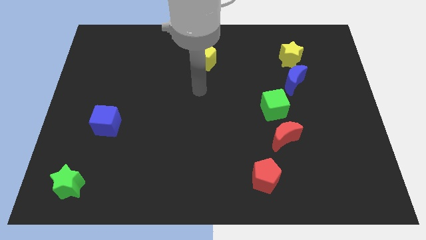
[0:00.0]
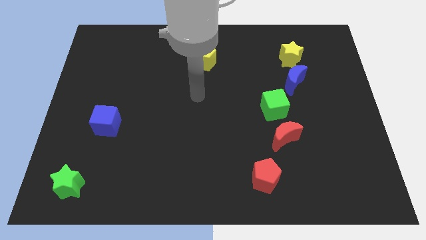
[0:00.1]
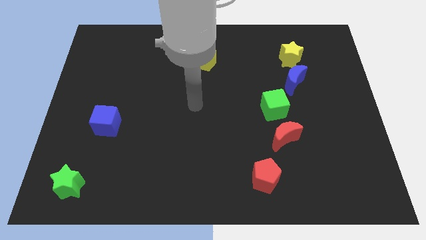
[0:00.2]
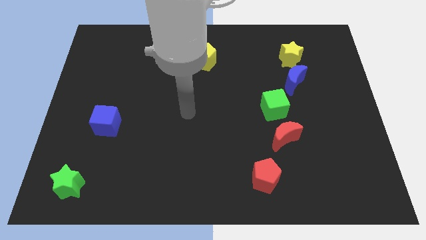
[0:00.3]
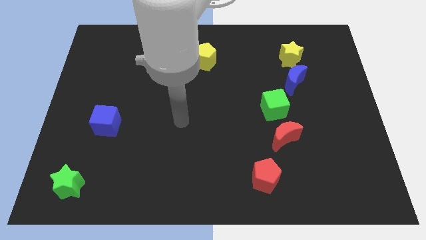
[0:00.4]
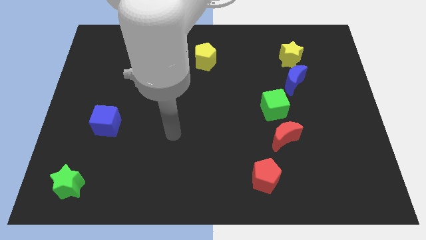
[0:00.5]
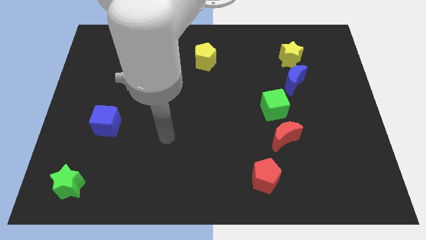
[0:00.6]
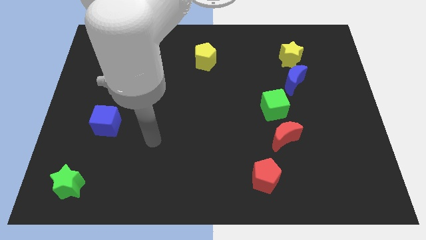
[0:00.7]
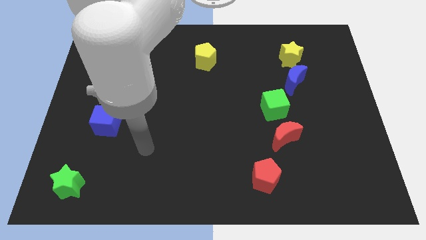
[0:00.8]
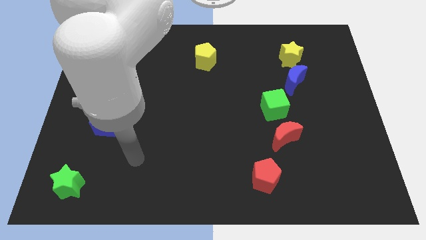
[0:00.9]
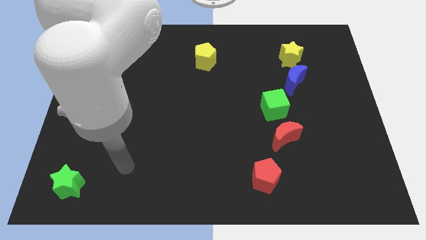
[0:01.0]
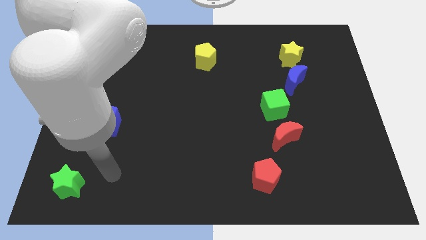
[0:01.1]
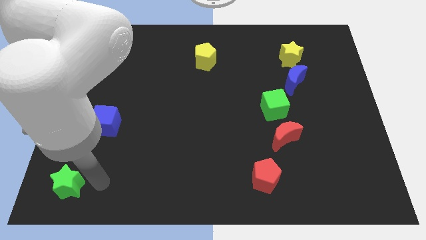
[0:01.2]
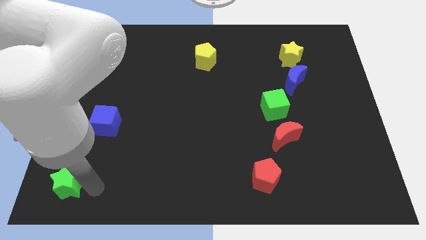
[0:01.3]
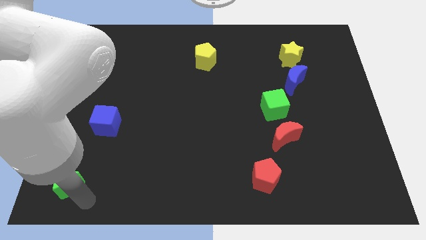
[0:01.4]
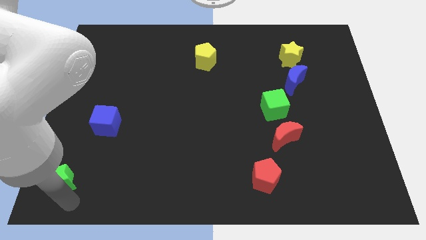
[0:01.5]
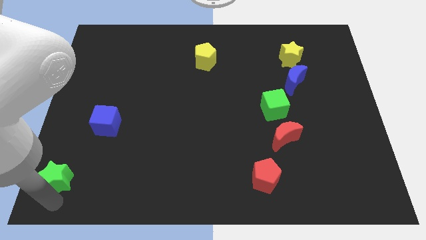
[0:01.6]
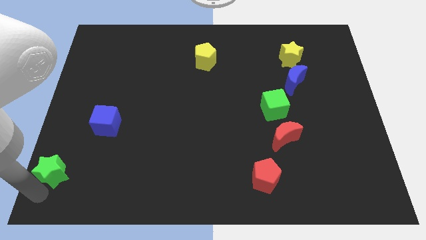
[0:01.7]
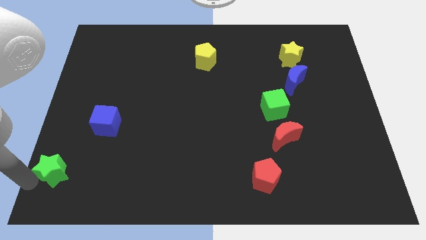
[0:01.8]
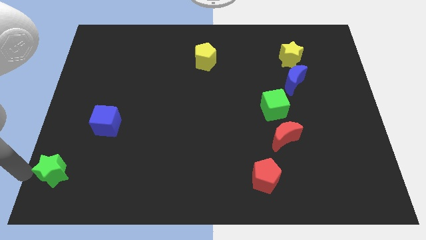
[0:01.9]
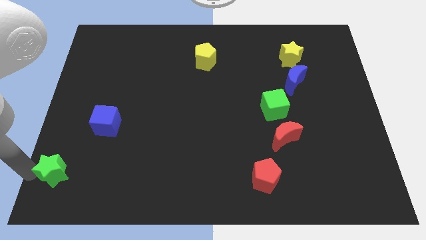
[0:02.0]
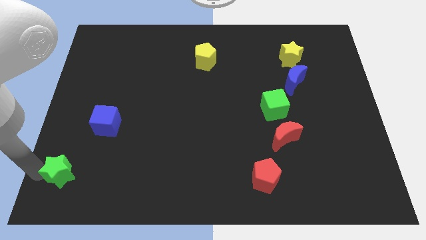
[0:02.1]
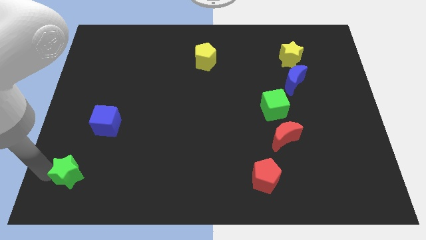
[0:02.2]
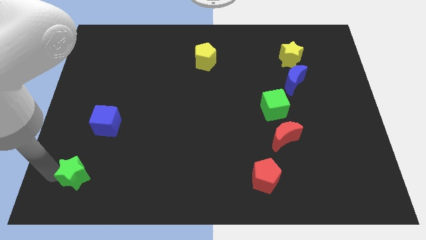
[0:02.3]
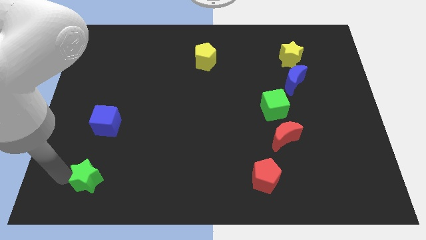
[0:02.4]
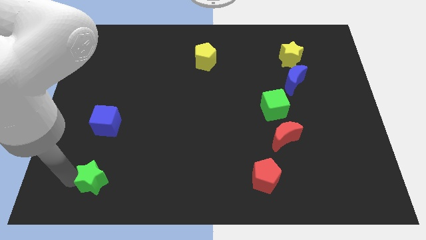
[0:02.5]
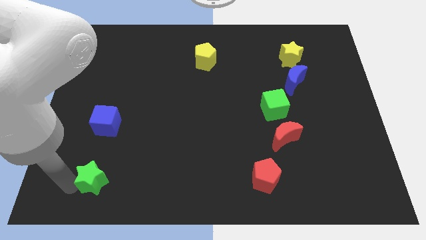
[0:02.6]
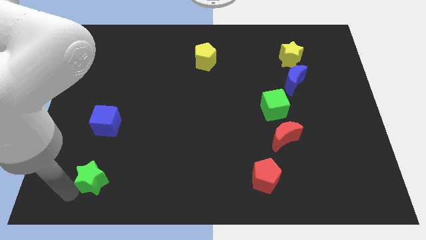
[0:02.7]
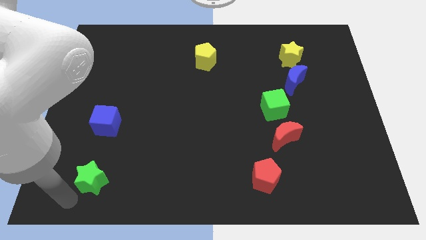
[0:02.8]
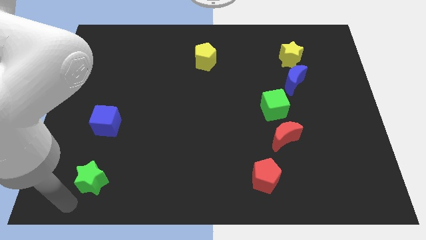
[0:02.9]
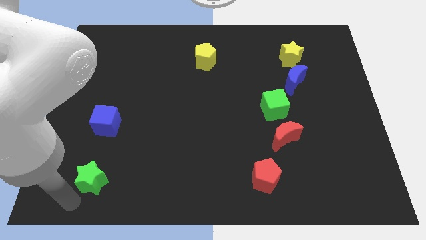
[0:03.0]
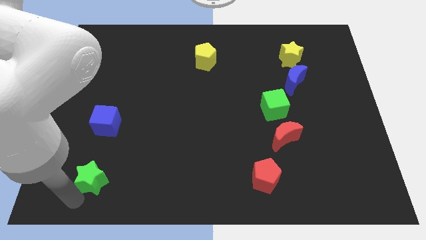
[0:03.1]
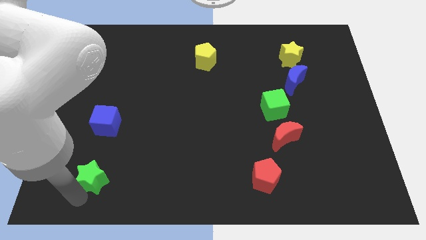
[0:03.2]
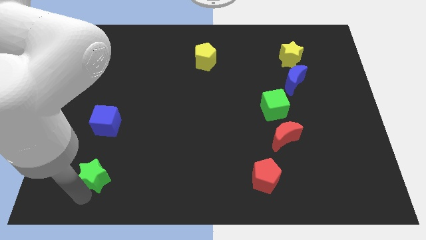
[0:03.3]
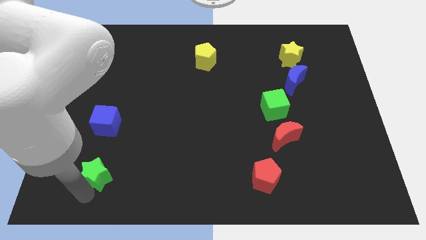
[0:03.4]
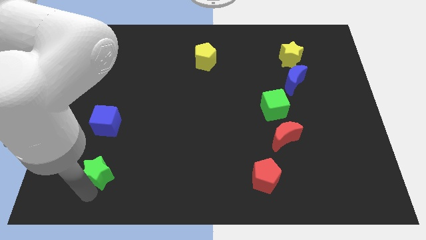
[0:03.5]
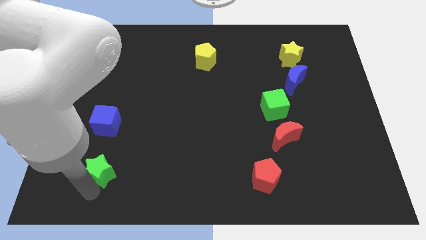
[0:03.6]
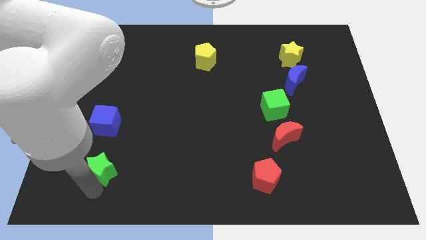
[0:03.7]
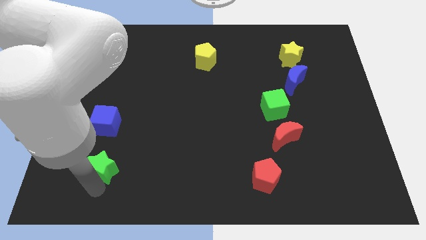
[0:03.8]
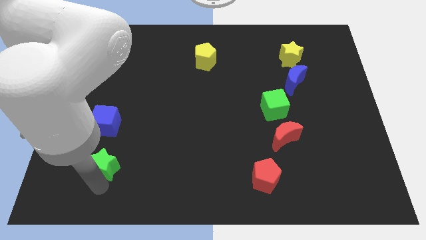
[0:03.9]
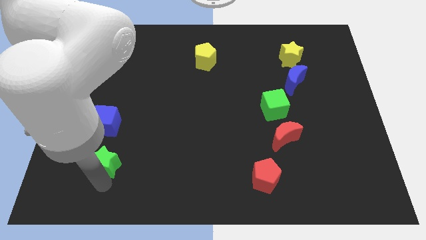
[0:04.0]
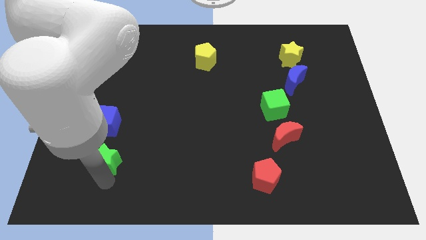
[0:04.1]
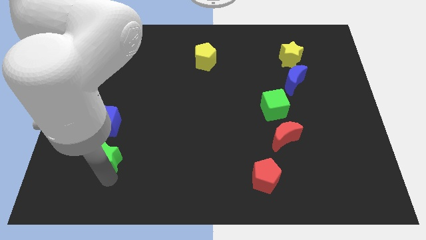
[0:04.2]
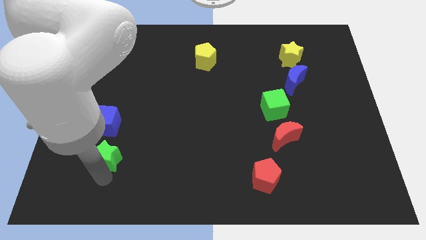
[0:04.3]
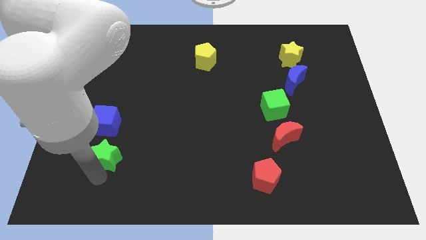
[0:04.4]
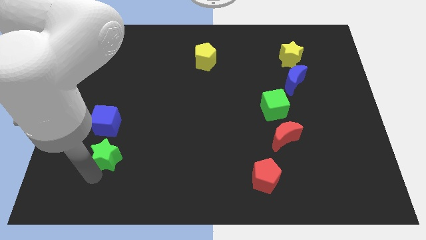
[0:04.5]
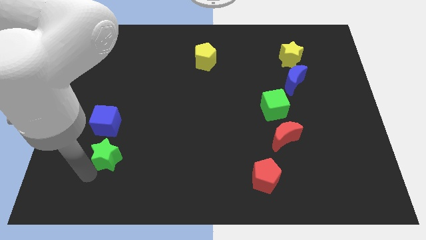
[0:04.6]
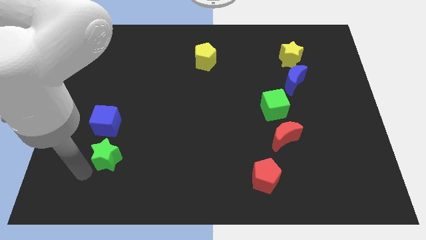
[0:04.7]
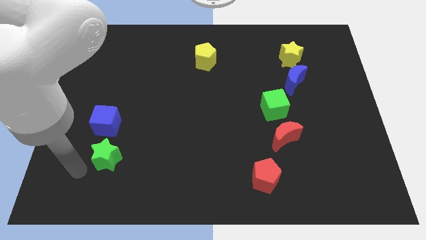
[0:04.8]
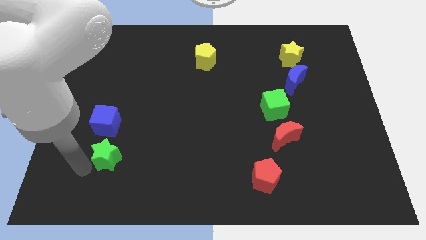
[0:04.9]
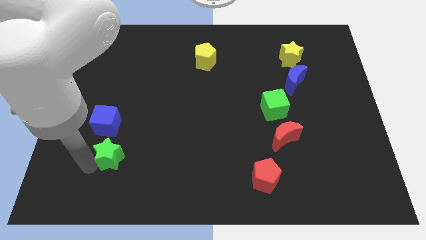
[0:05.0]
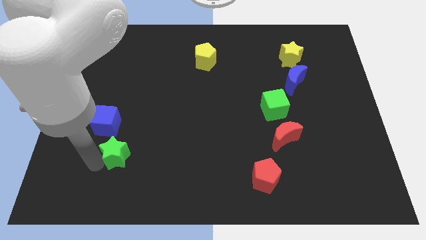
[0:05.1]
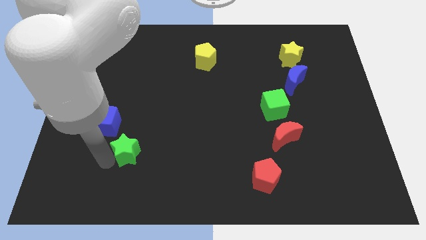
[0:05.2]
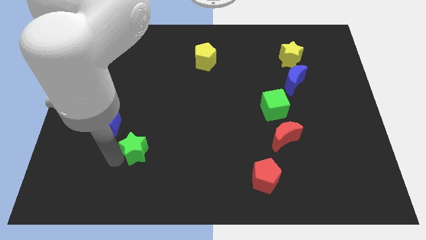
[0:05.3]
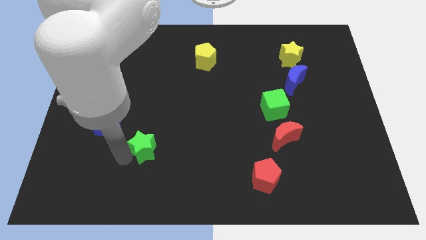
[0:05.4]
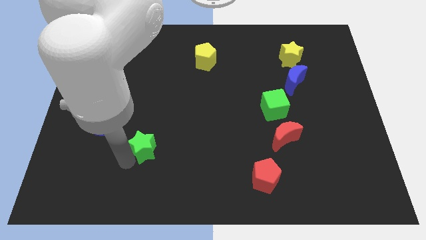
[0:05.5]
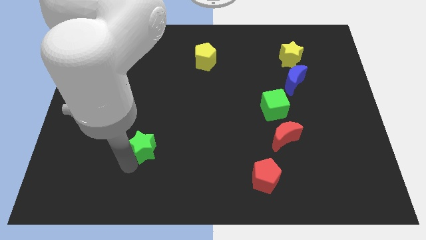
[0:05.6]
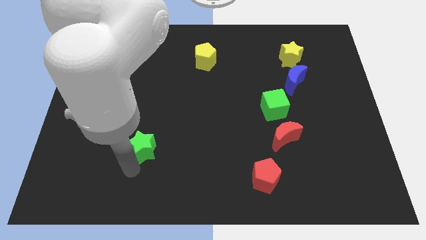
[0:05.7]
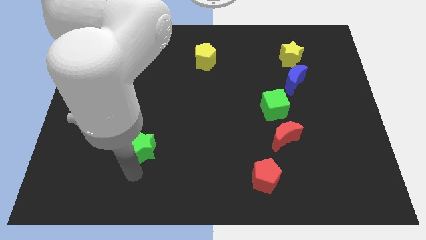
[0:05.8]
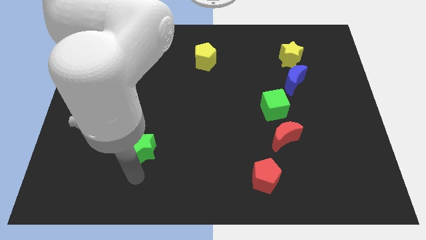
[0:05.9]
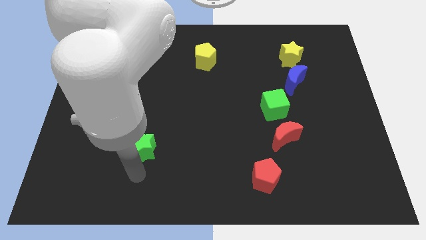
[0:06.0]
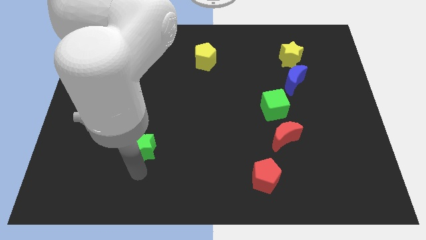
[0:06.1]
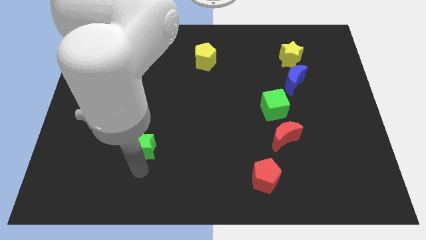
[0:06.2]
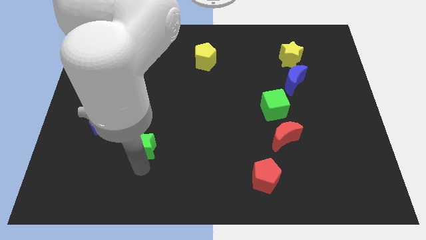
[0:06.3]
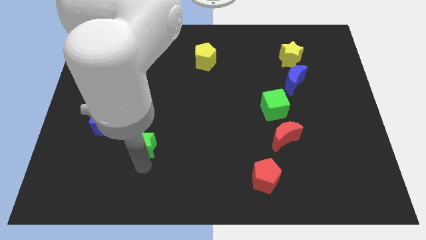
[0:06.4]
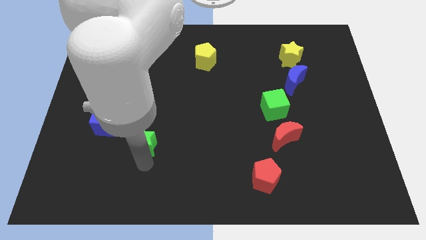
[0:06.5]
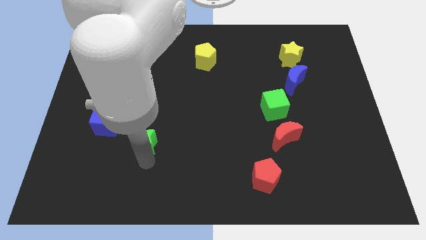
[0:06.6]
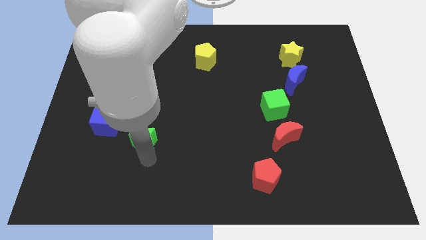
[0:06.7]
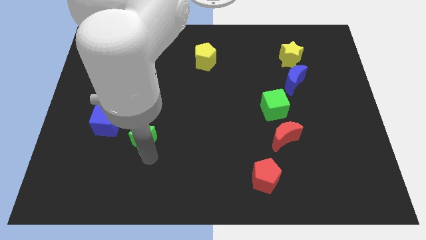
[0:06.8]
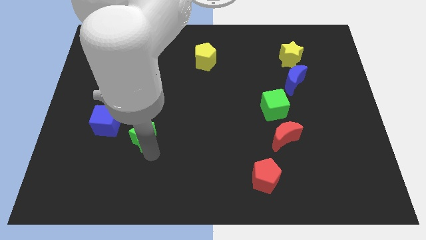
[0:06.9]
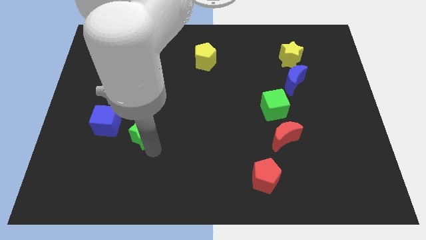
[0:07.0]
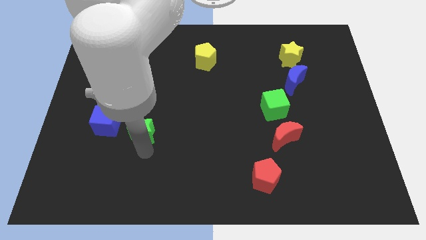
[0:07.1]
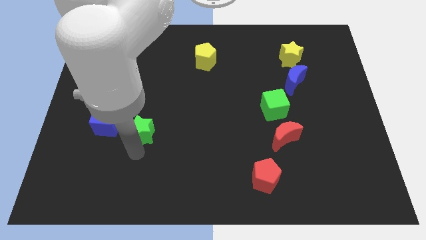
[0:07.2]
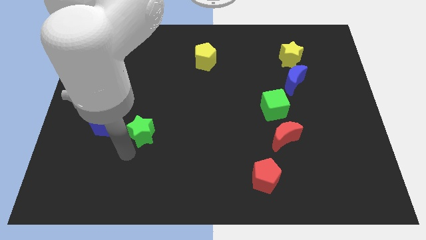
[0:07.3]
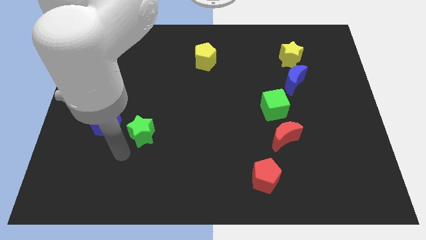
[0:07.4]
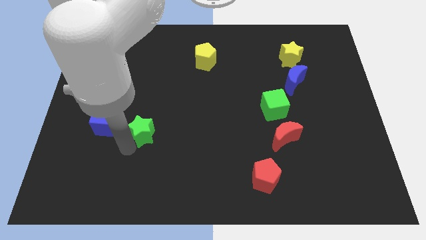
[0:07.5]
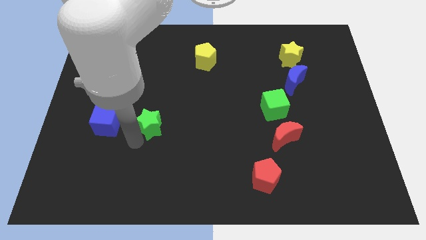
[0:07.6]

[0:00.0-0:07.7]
move the green star up and then to the right

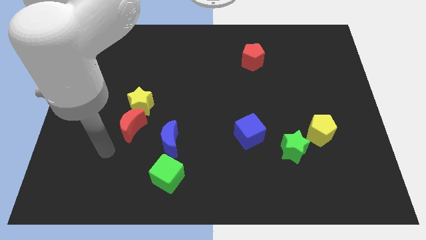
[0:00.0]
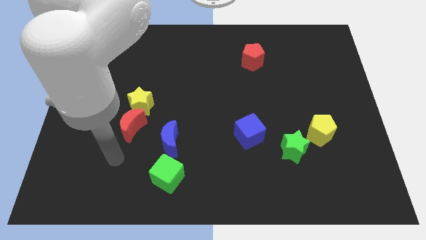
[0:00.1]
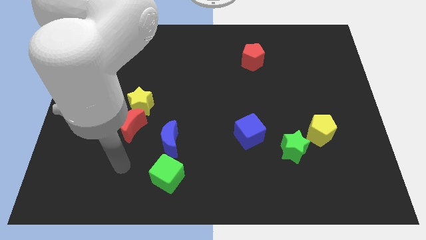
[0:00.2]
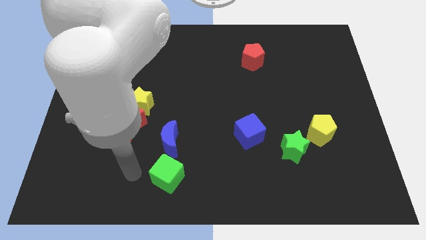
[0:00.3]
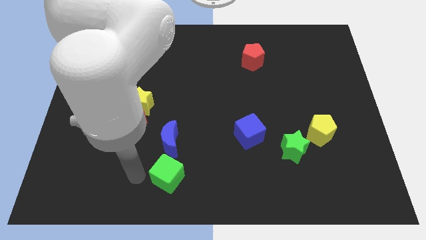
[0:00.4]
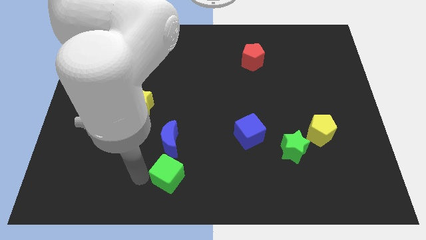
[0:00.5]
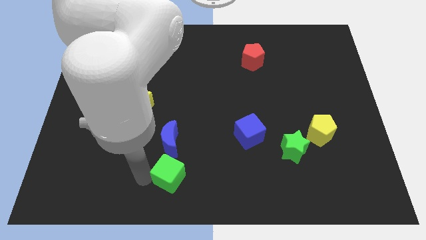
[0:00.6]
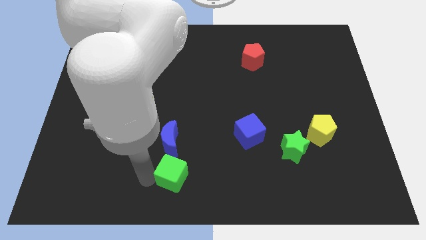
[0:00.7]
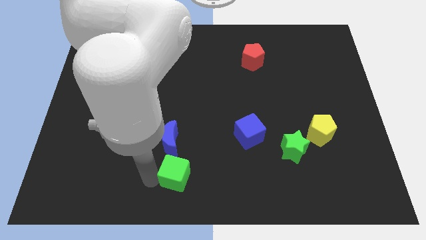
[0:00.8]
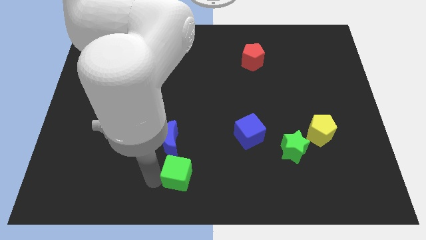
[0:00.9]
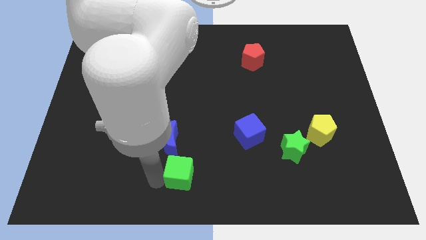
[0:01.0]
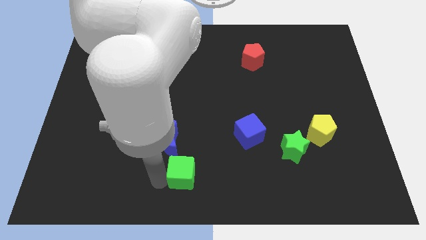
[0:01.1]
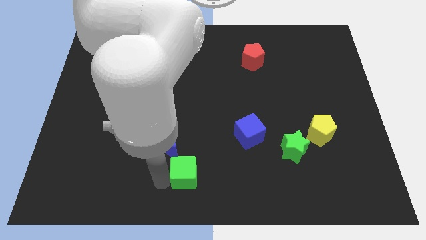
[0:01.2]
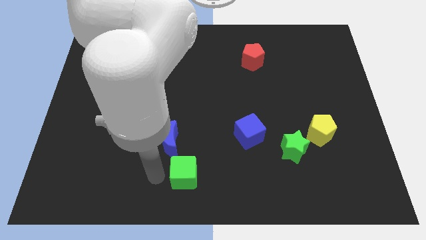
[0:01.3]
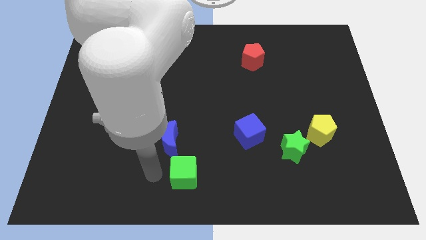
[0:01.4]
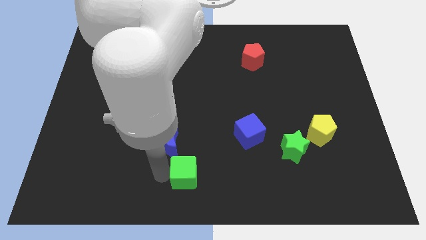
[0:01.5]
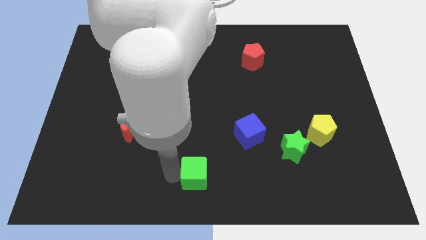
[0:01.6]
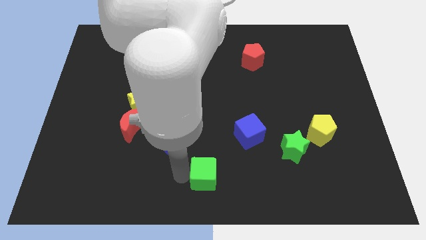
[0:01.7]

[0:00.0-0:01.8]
slightly push the green cube right
